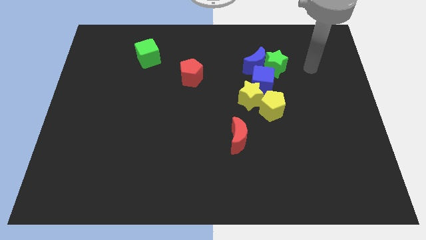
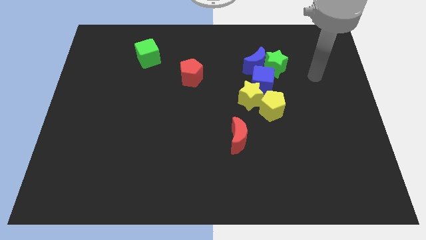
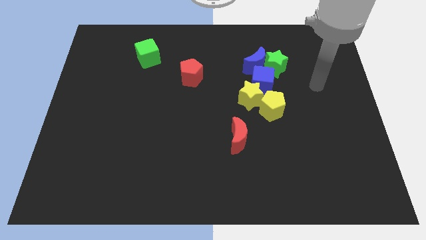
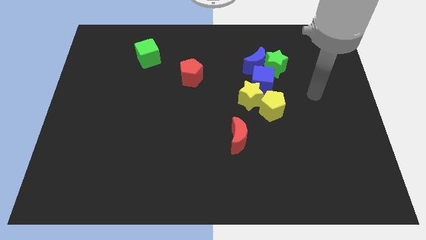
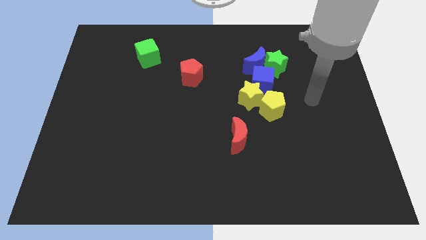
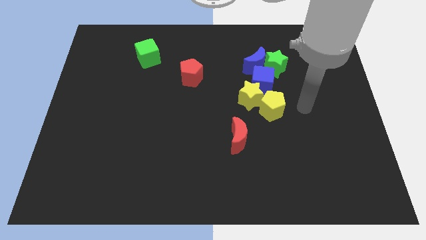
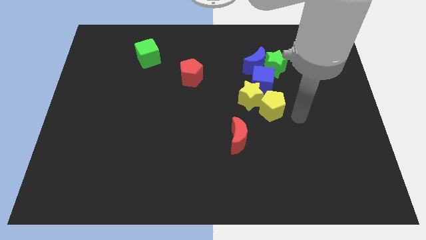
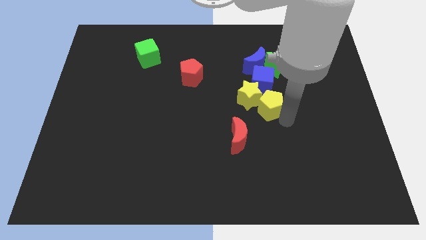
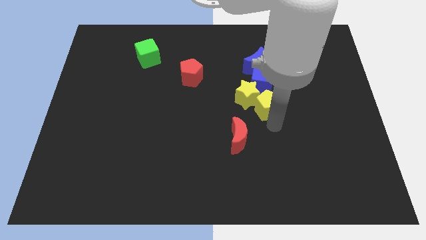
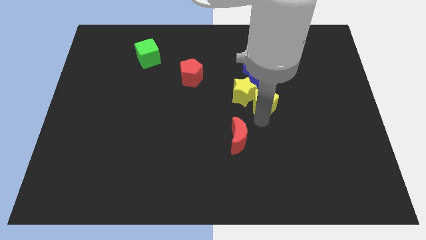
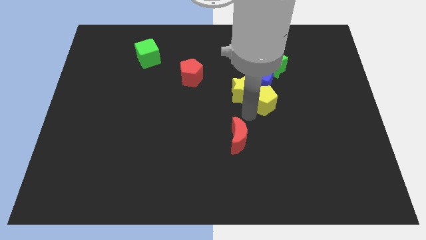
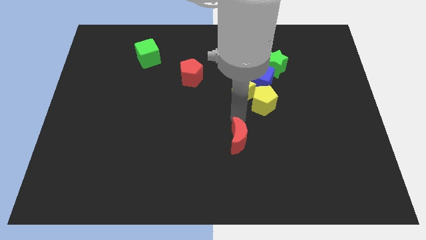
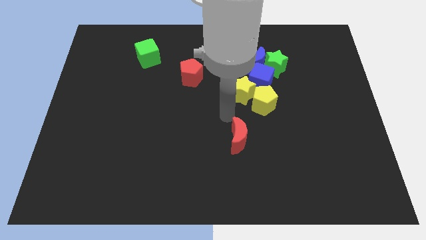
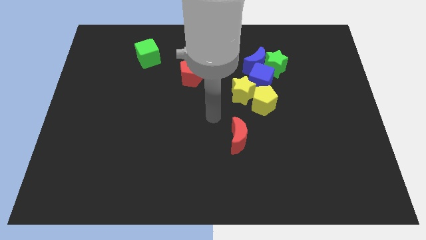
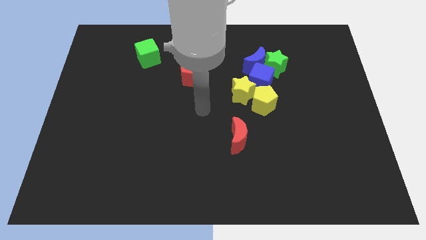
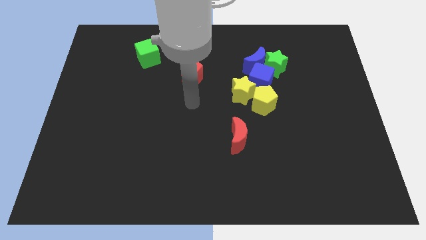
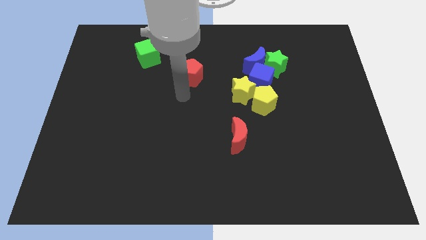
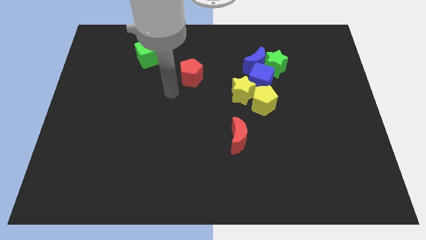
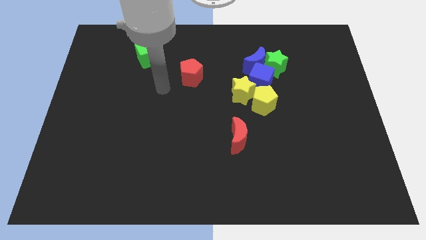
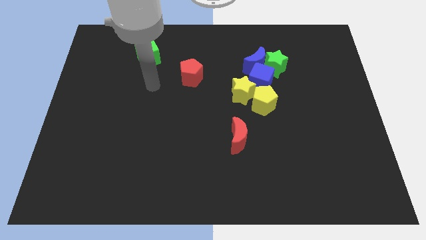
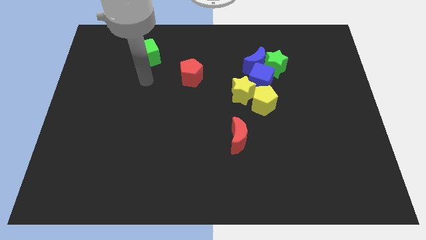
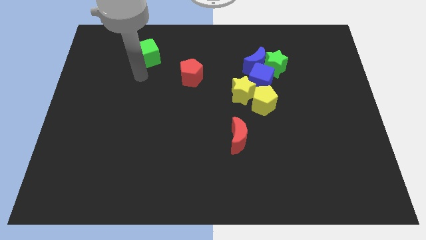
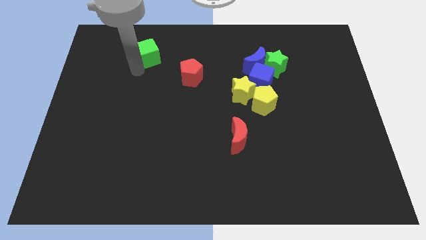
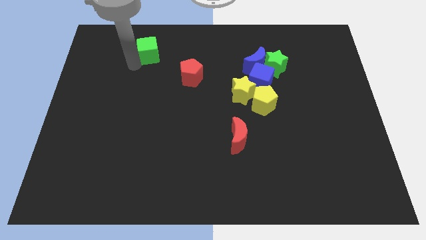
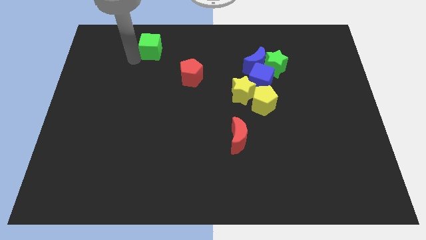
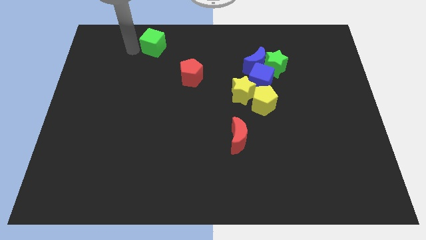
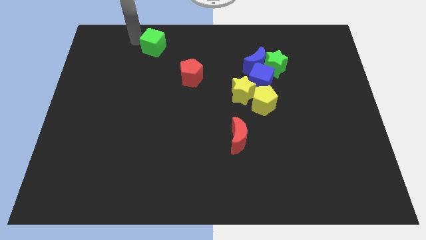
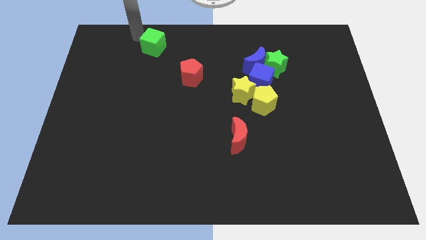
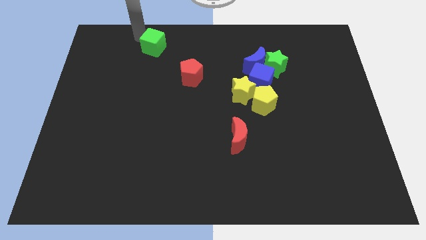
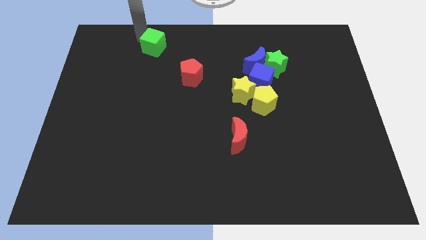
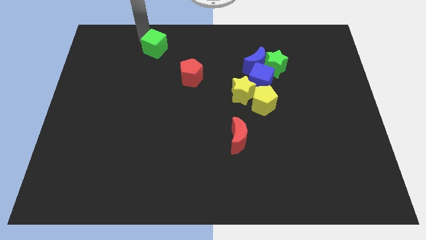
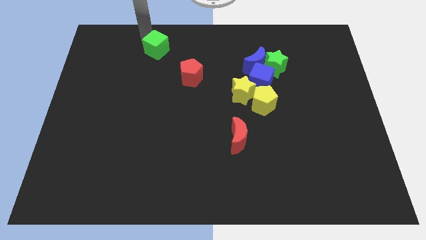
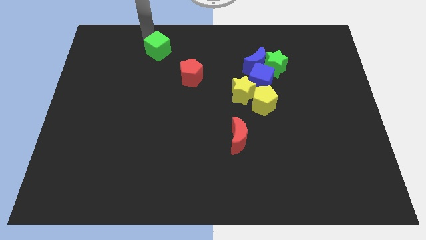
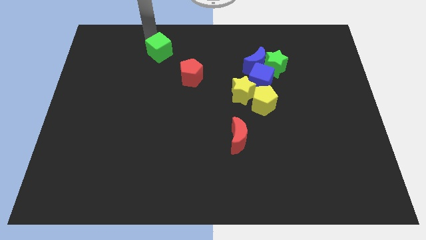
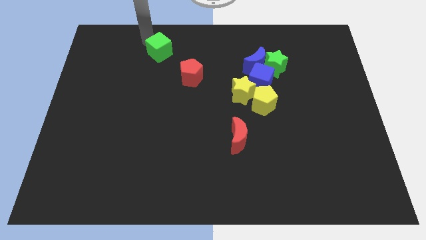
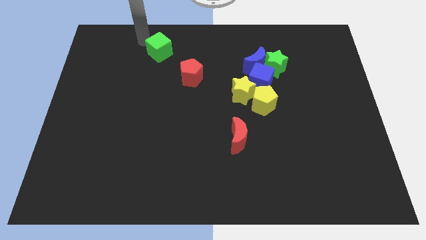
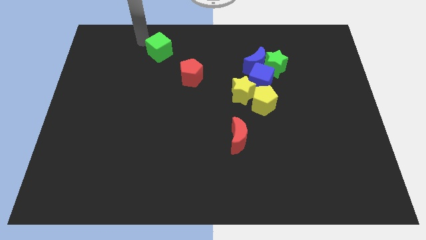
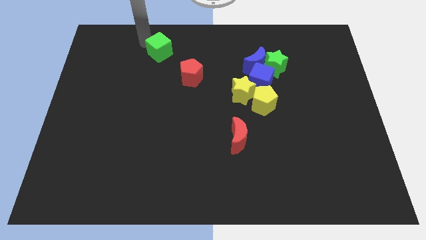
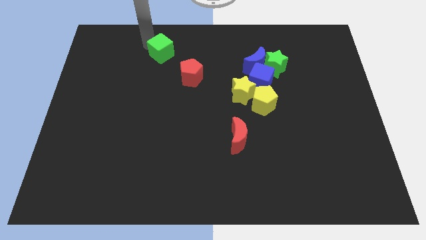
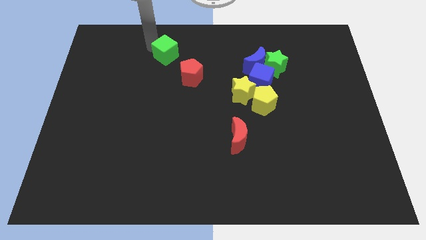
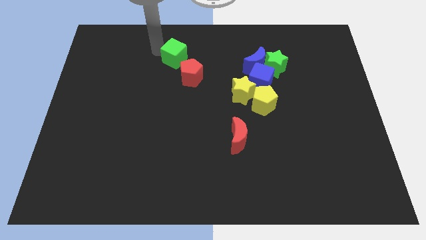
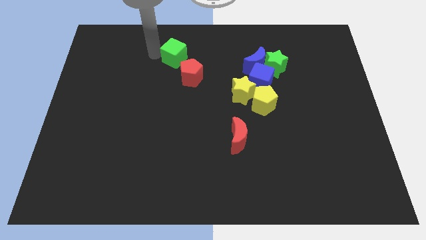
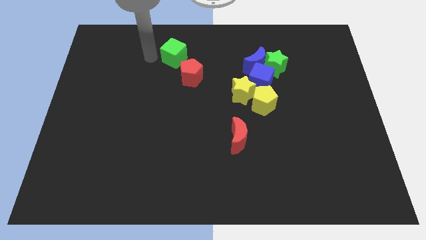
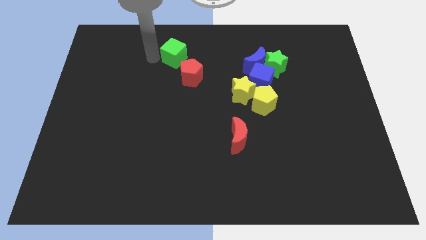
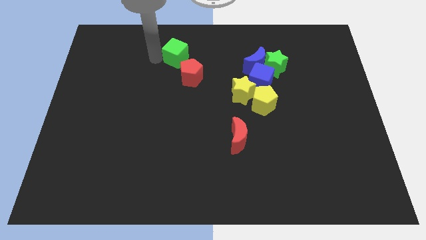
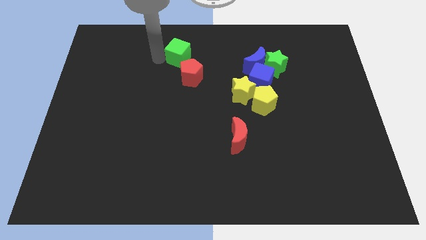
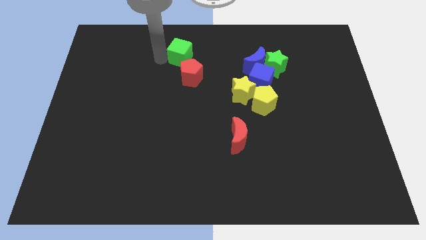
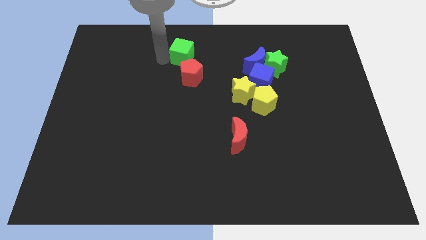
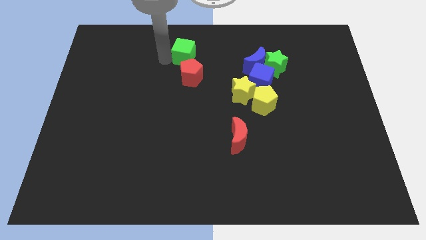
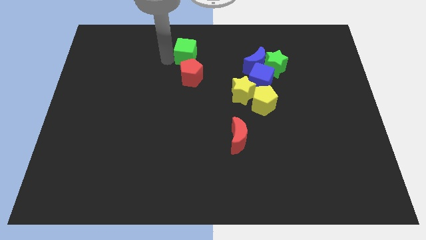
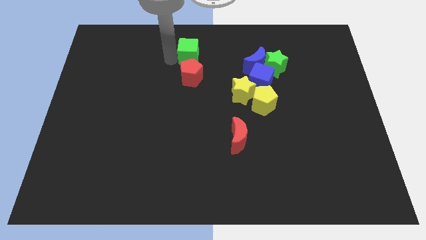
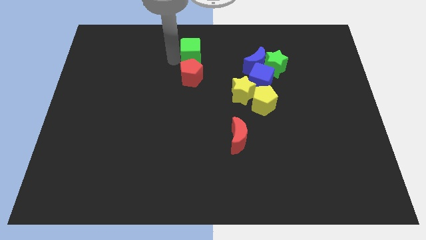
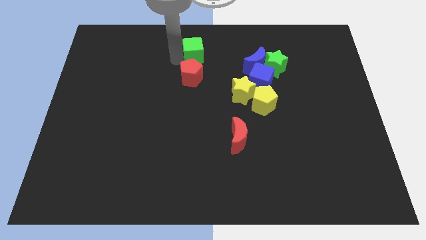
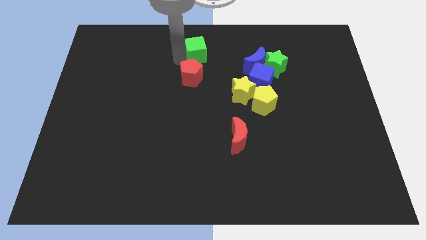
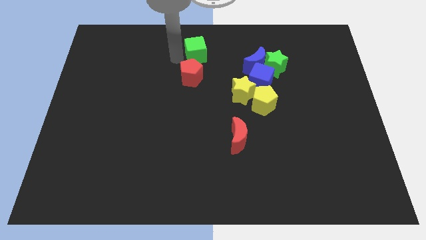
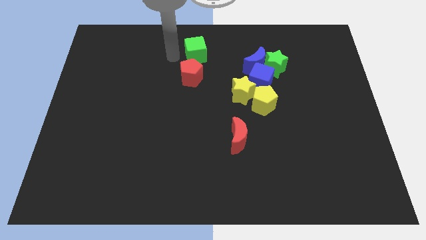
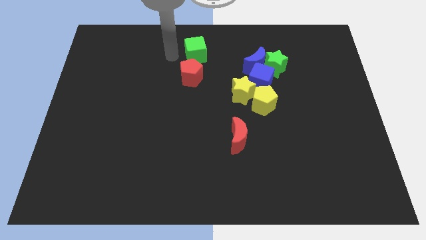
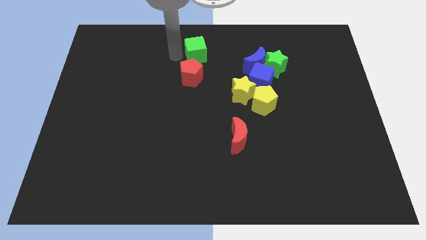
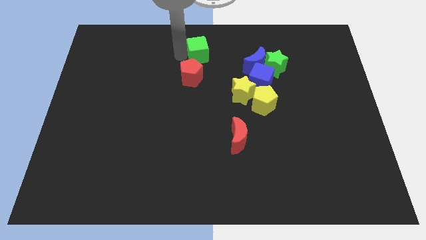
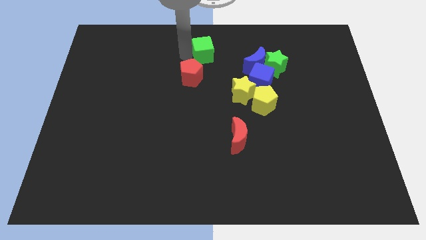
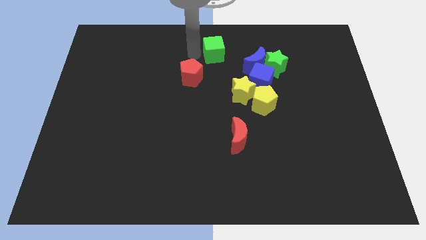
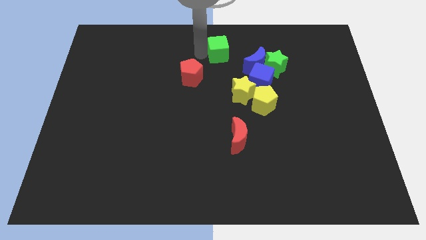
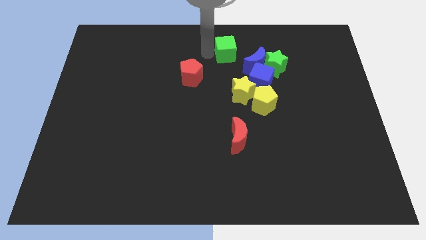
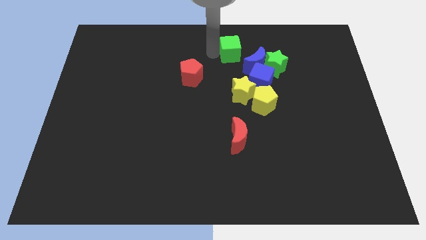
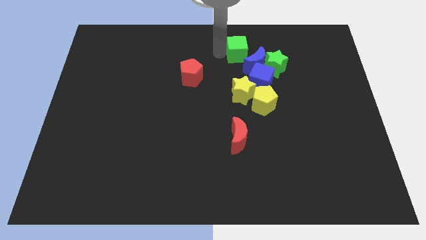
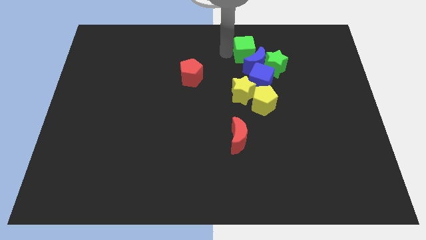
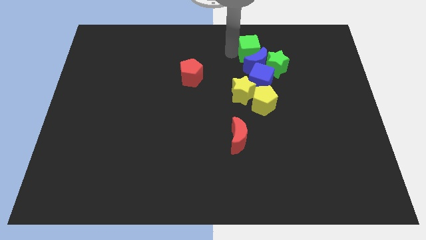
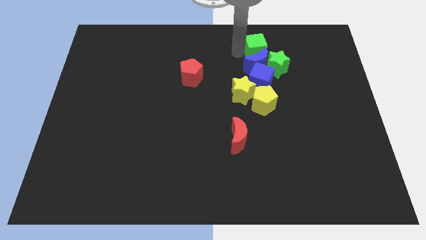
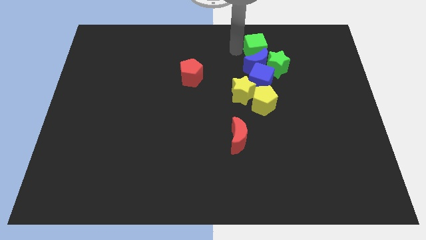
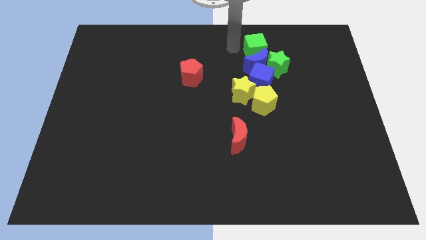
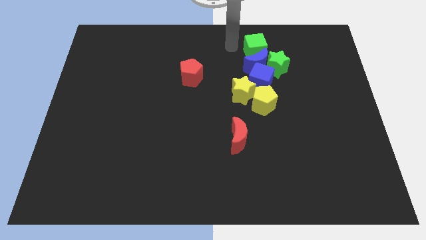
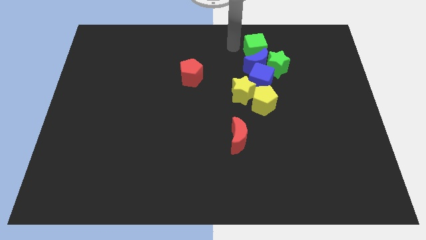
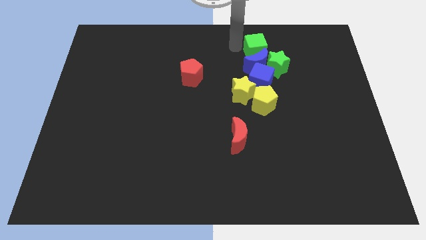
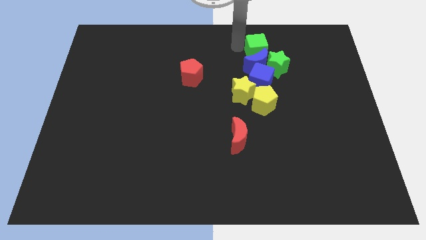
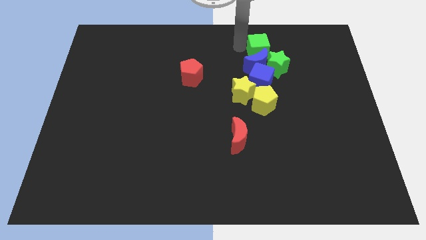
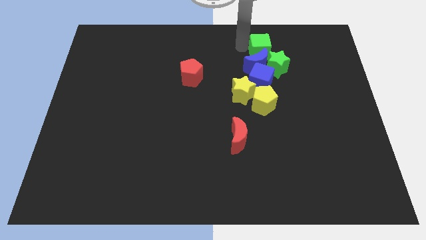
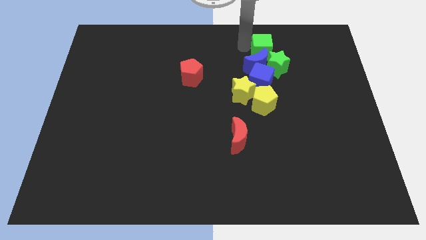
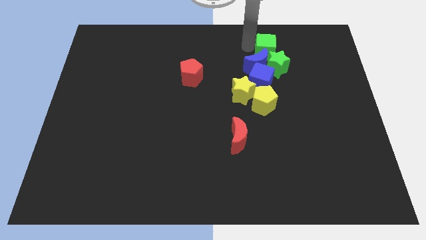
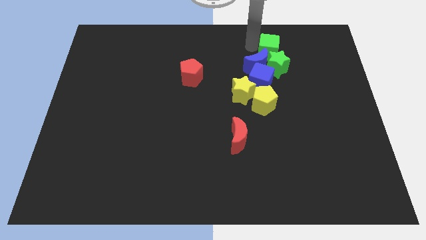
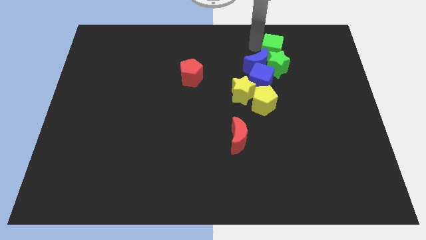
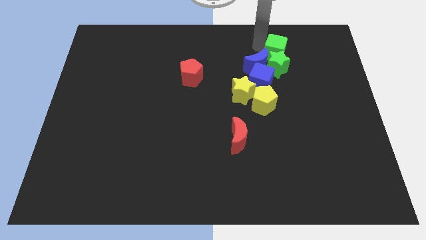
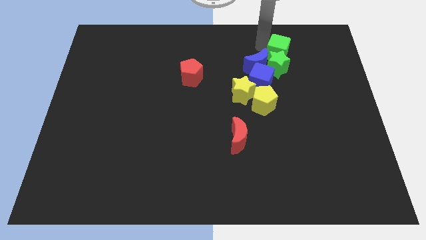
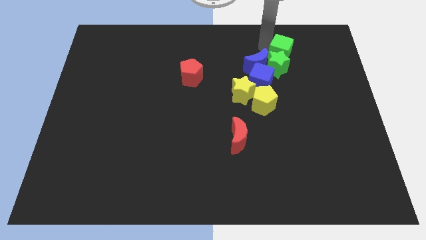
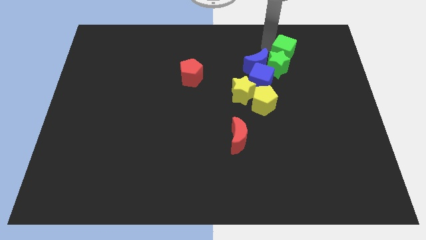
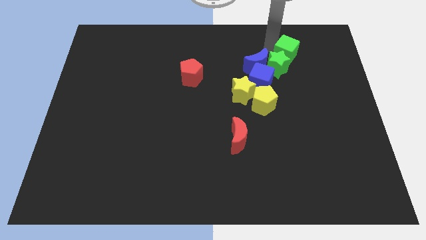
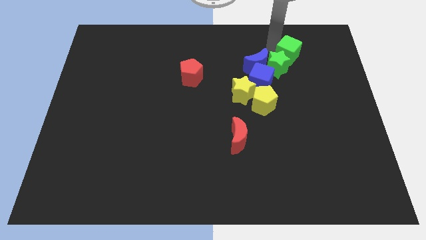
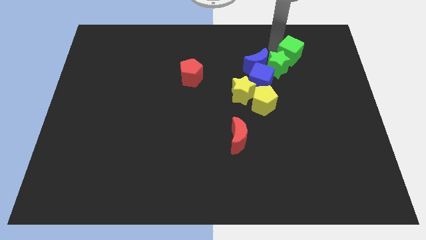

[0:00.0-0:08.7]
push the green cube right of the green star
